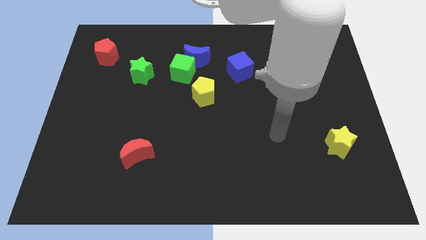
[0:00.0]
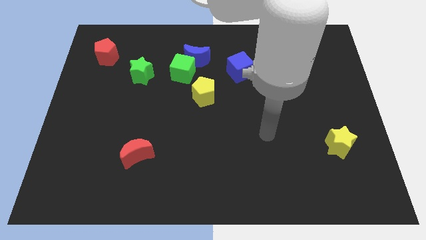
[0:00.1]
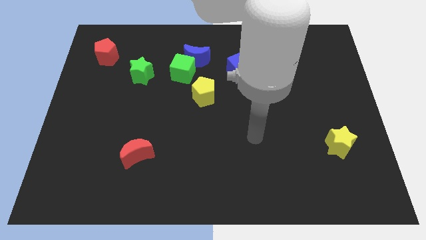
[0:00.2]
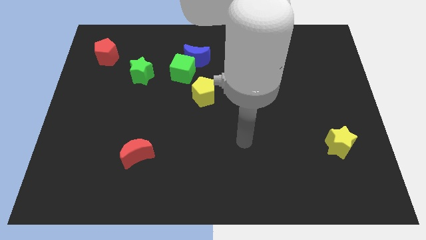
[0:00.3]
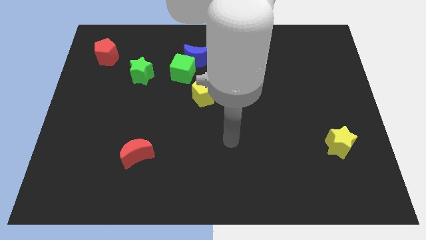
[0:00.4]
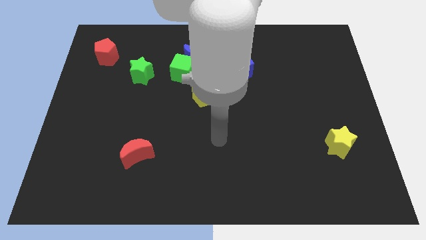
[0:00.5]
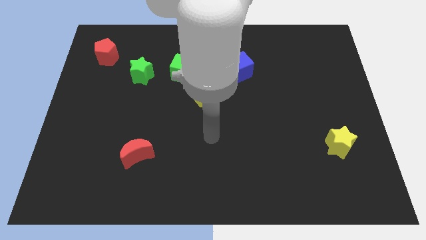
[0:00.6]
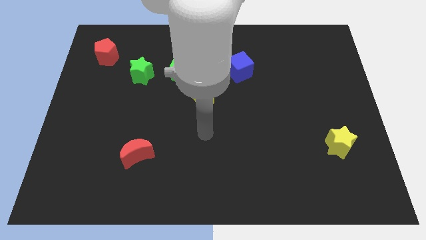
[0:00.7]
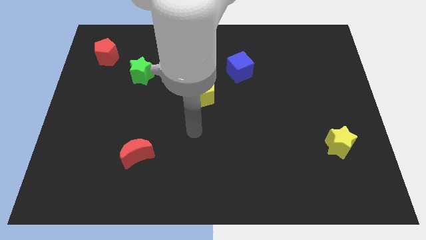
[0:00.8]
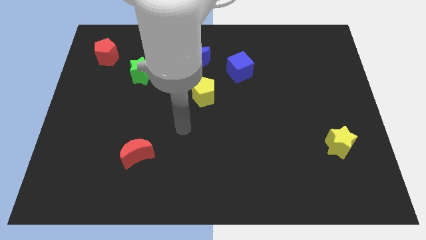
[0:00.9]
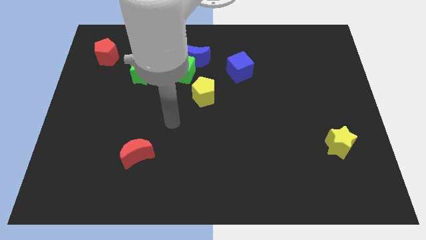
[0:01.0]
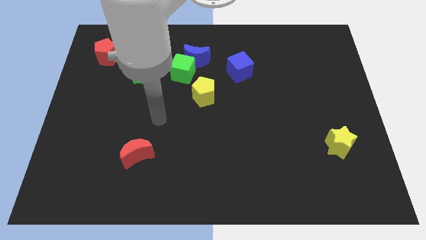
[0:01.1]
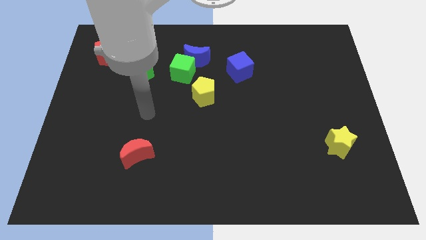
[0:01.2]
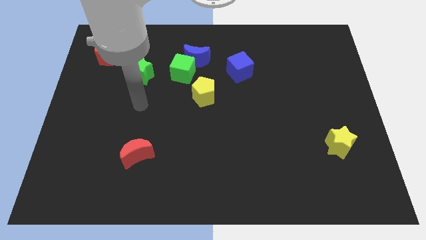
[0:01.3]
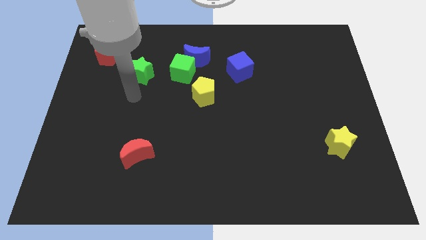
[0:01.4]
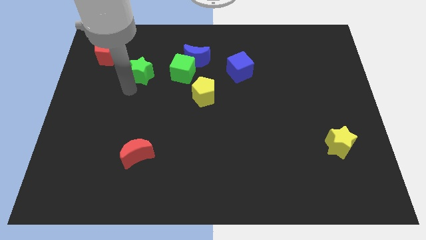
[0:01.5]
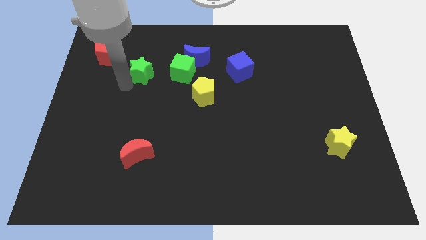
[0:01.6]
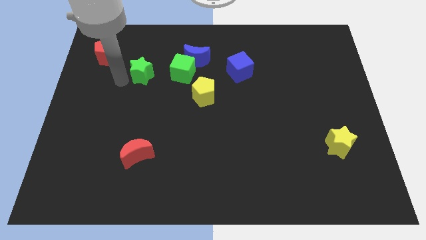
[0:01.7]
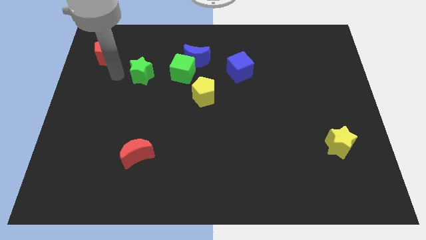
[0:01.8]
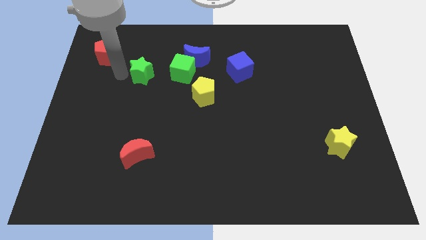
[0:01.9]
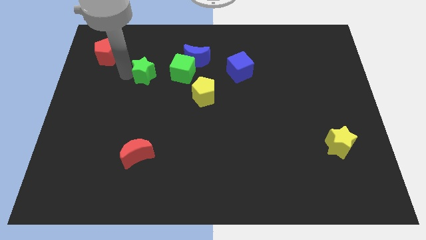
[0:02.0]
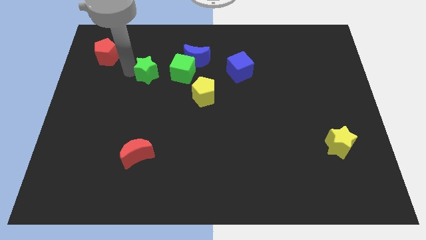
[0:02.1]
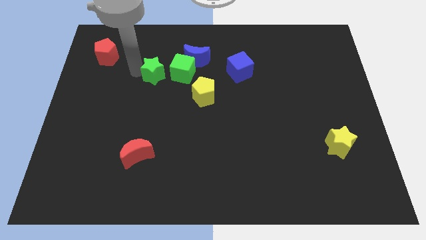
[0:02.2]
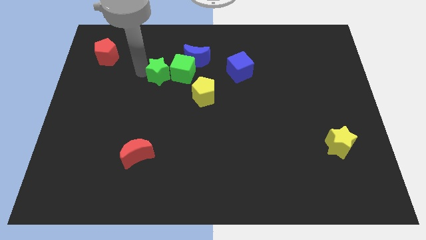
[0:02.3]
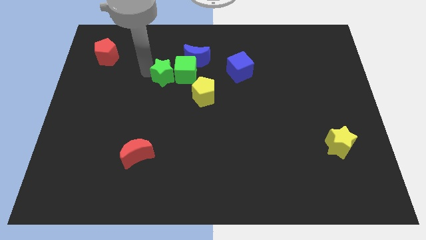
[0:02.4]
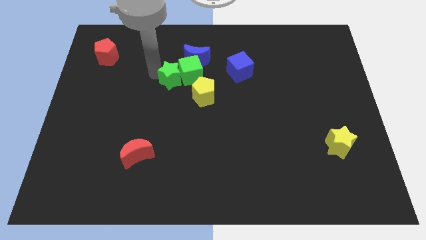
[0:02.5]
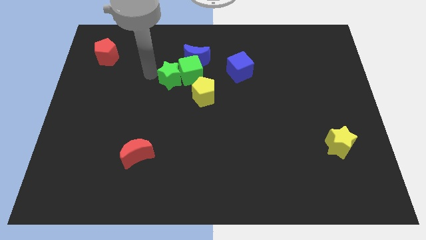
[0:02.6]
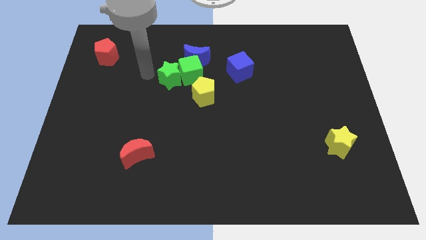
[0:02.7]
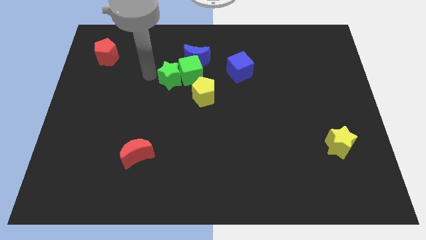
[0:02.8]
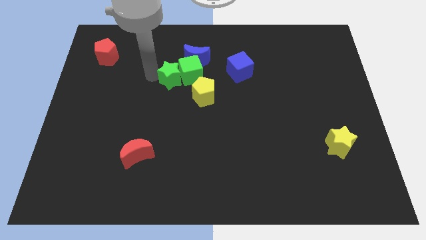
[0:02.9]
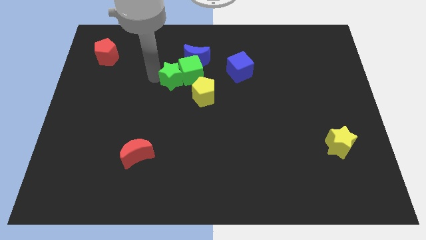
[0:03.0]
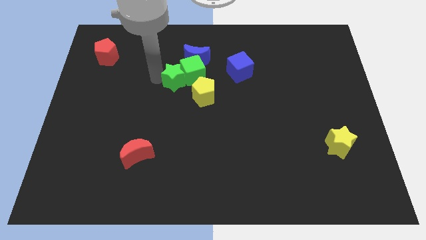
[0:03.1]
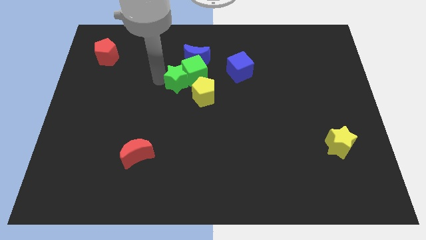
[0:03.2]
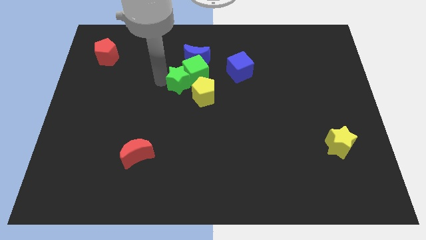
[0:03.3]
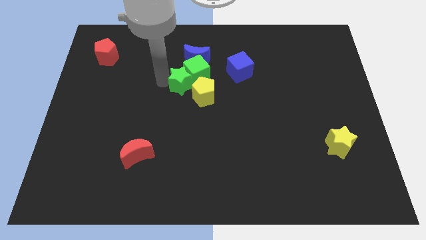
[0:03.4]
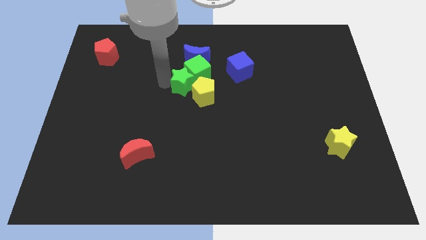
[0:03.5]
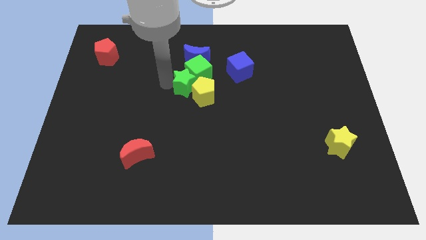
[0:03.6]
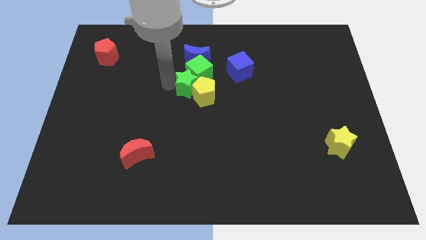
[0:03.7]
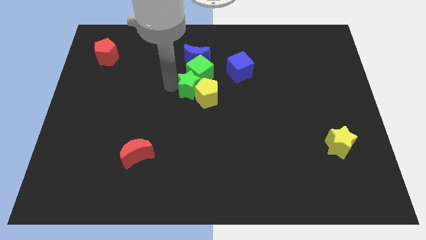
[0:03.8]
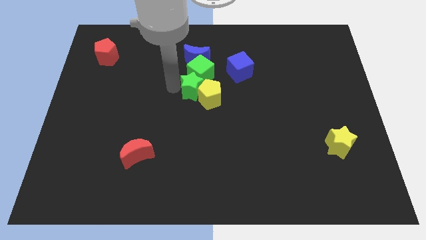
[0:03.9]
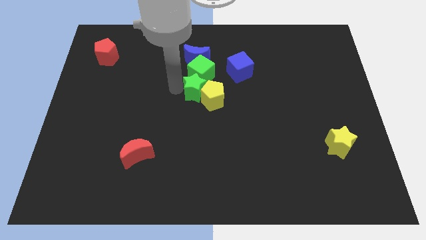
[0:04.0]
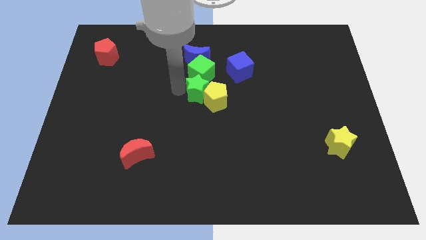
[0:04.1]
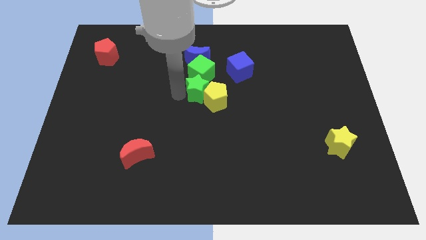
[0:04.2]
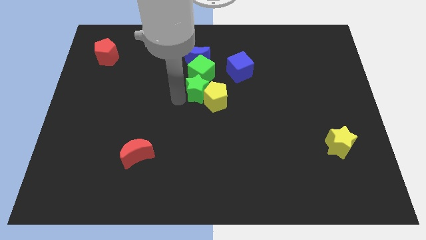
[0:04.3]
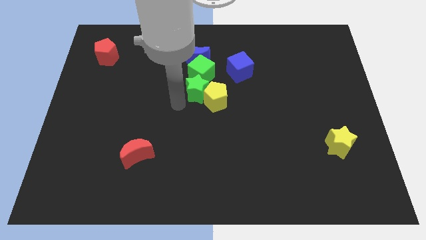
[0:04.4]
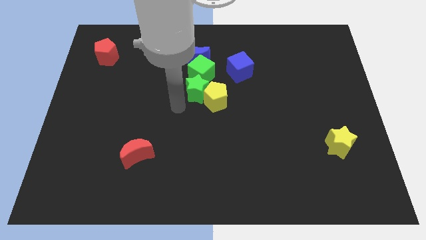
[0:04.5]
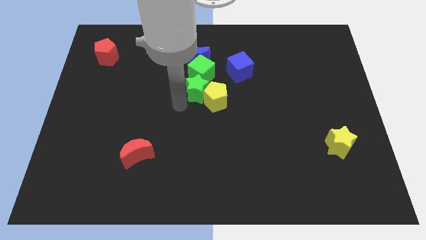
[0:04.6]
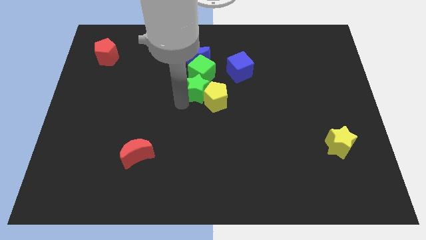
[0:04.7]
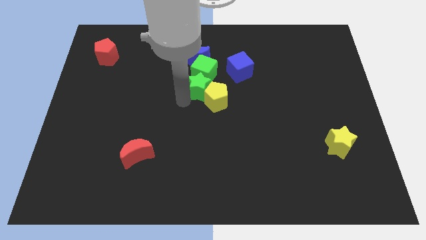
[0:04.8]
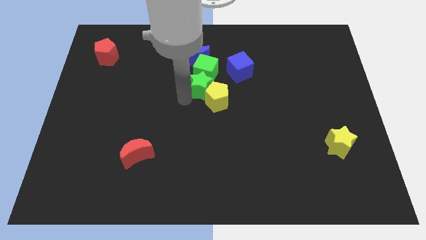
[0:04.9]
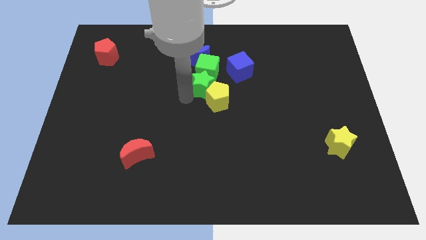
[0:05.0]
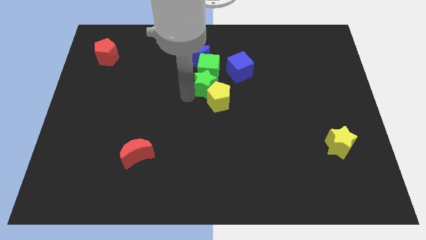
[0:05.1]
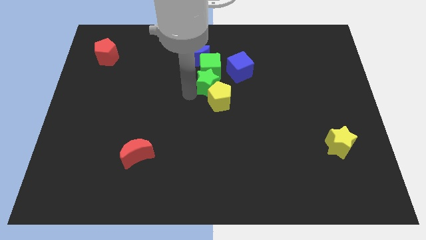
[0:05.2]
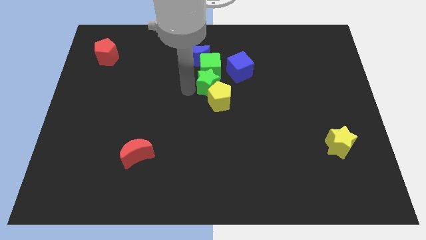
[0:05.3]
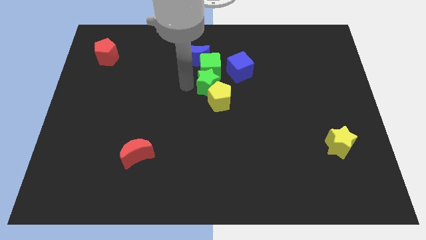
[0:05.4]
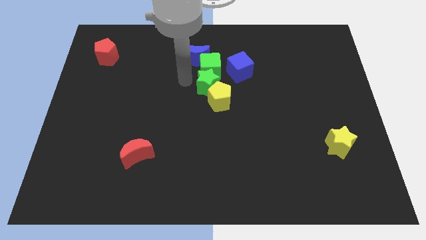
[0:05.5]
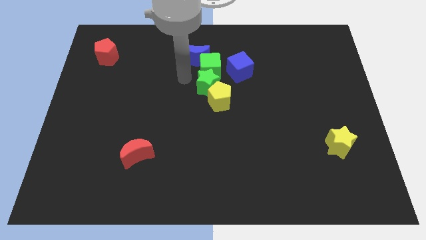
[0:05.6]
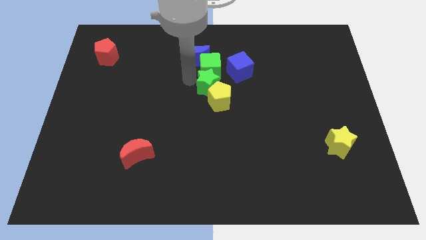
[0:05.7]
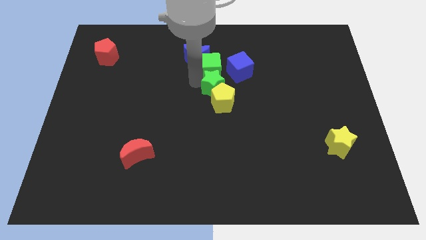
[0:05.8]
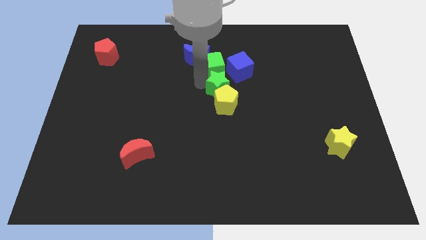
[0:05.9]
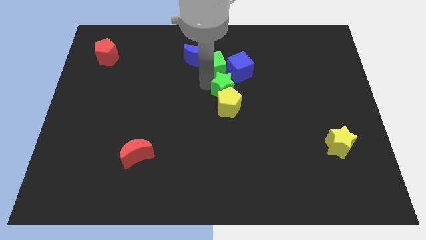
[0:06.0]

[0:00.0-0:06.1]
move the green star to the bottom of the blue cube
